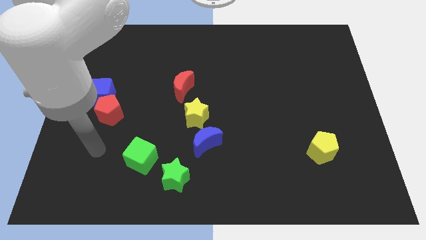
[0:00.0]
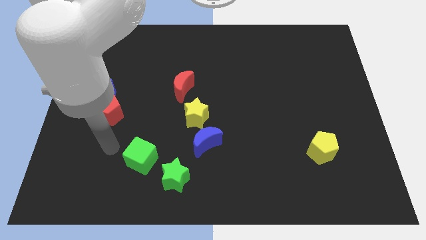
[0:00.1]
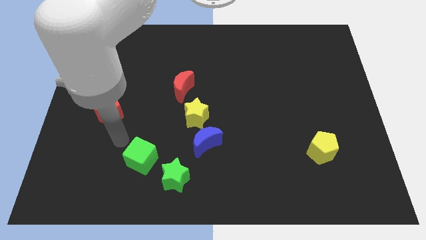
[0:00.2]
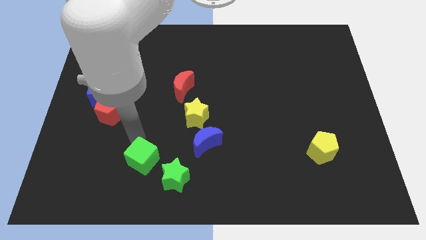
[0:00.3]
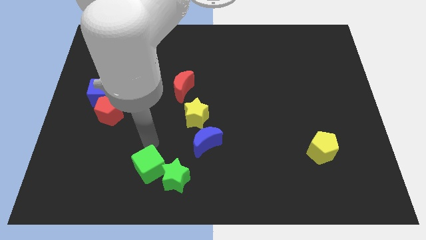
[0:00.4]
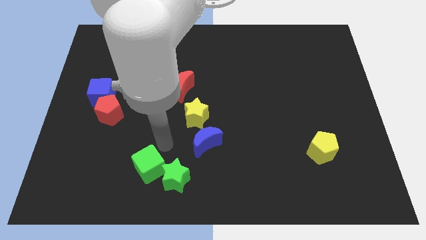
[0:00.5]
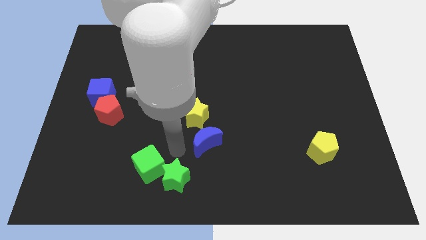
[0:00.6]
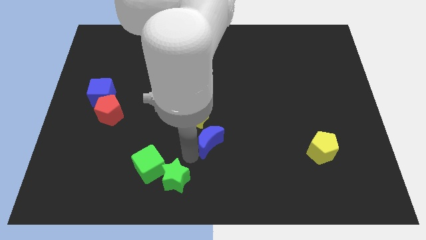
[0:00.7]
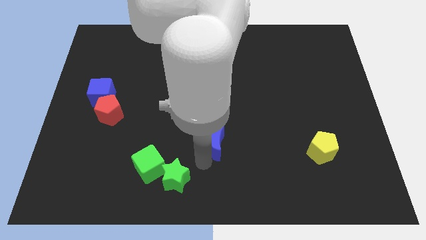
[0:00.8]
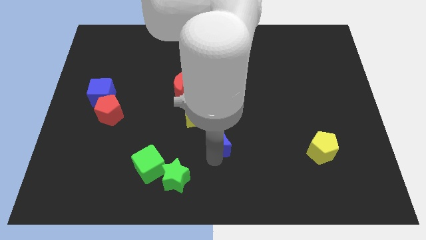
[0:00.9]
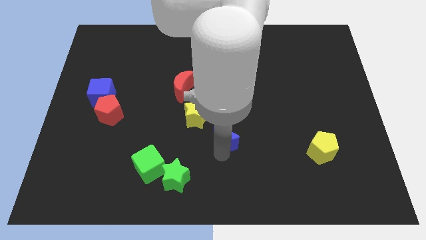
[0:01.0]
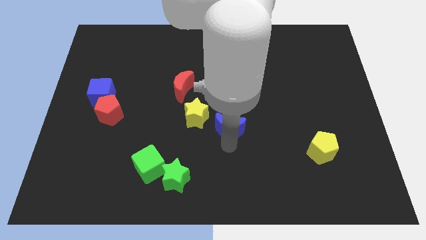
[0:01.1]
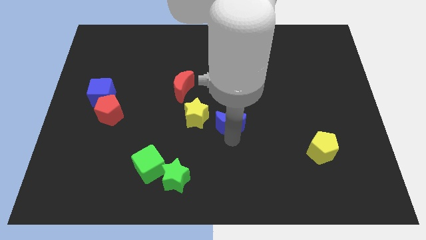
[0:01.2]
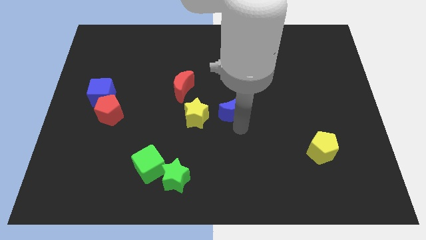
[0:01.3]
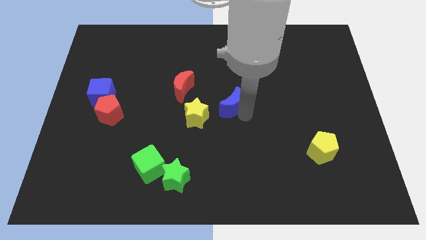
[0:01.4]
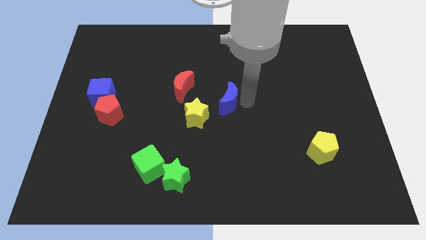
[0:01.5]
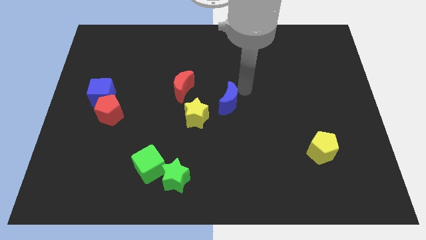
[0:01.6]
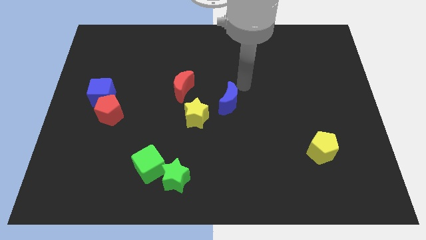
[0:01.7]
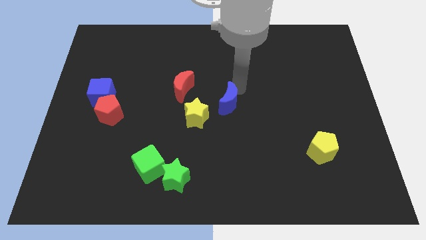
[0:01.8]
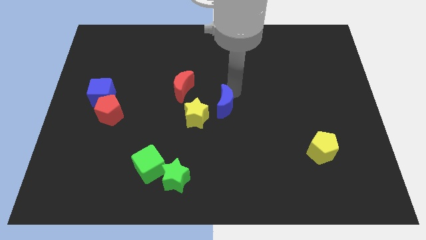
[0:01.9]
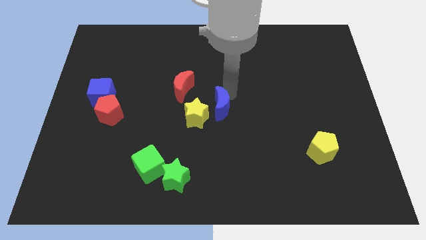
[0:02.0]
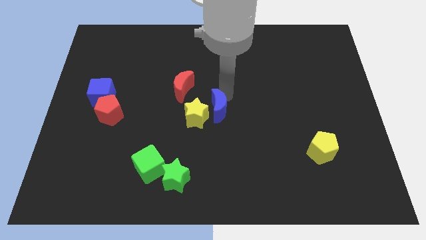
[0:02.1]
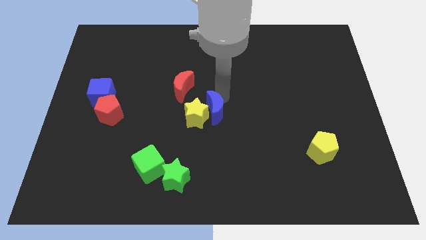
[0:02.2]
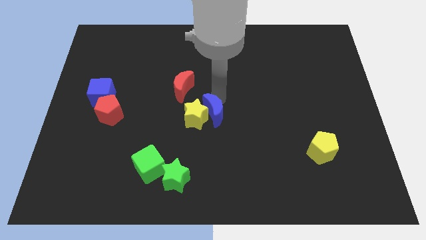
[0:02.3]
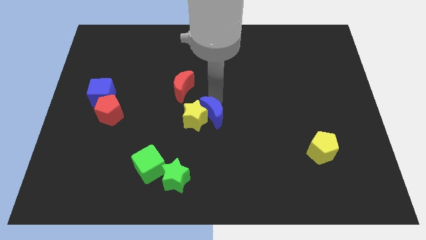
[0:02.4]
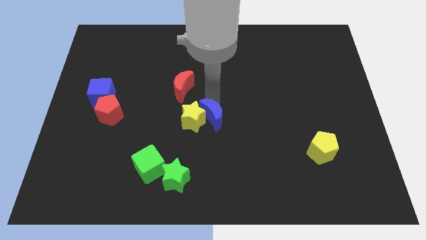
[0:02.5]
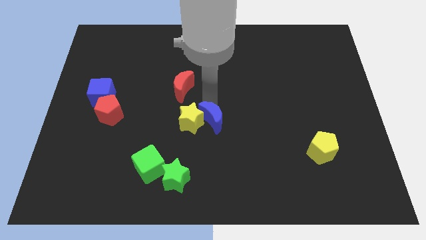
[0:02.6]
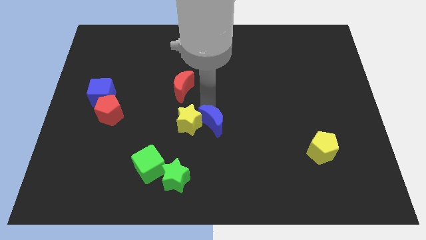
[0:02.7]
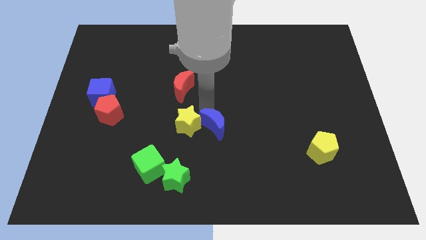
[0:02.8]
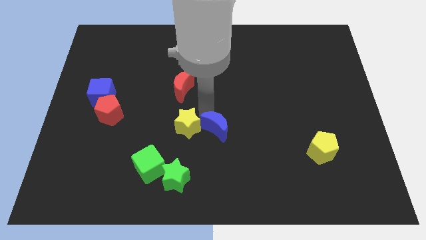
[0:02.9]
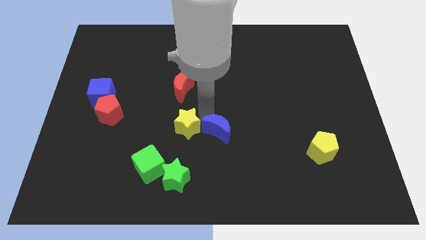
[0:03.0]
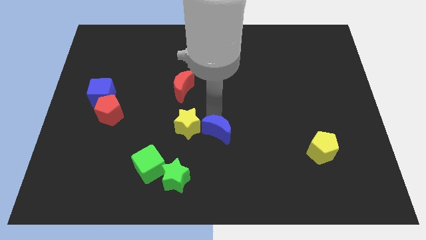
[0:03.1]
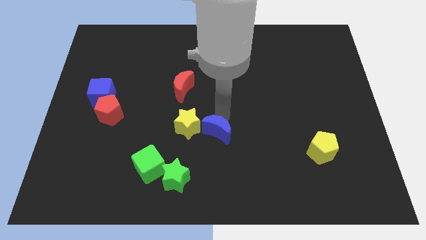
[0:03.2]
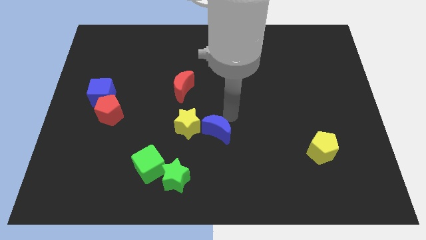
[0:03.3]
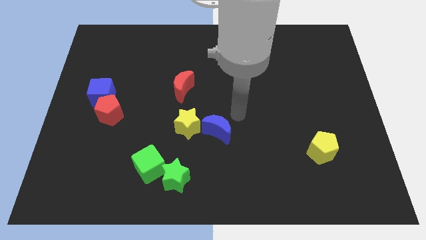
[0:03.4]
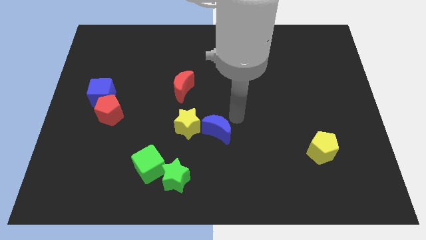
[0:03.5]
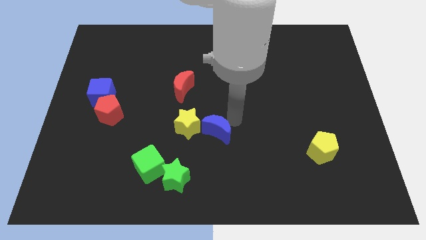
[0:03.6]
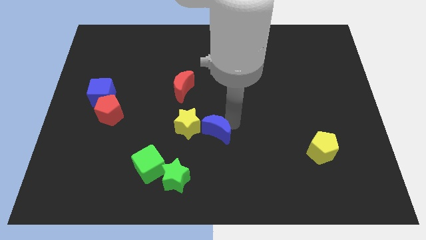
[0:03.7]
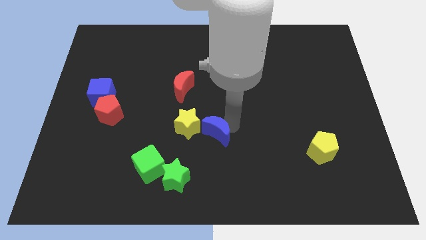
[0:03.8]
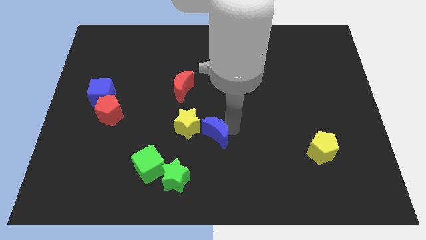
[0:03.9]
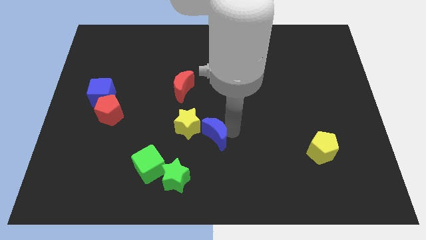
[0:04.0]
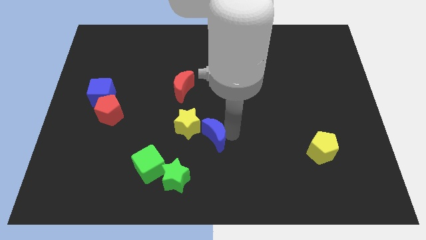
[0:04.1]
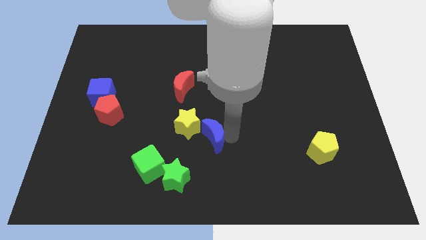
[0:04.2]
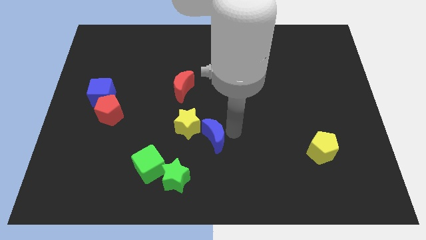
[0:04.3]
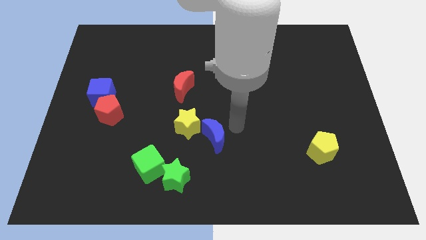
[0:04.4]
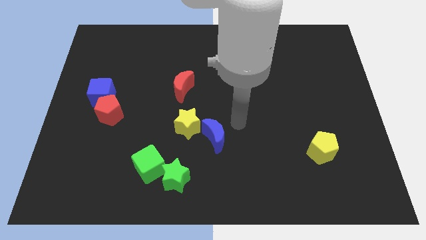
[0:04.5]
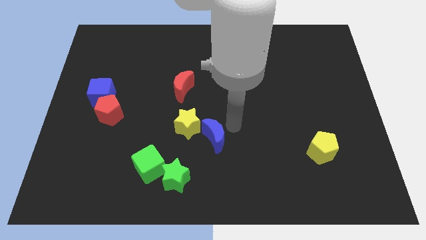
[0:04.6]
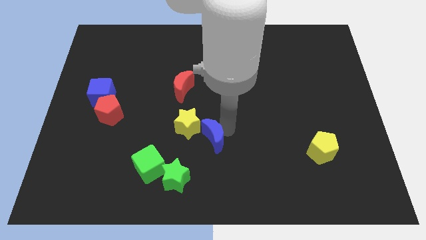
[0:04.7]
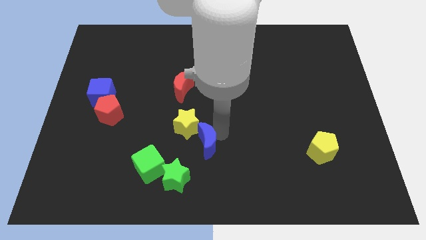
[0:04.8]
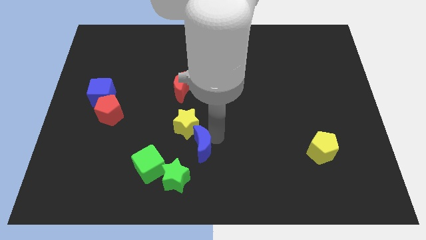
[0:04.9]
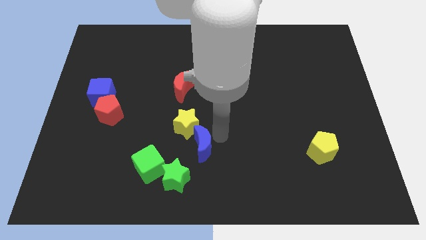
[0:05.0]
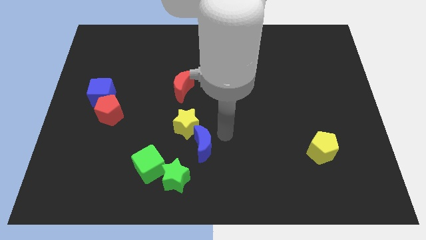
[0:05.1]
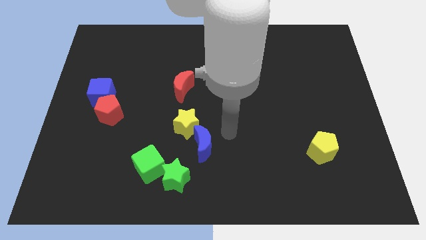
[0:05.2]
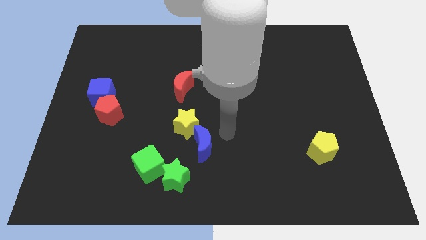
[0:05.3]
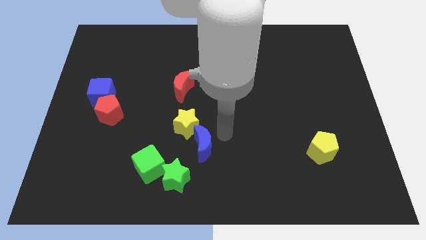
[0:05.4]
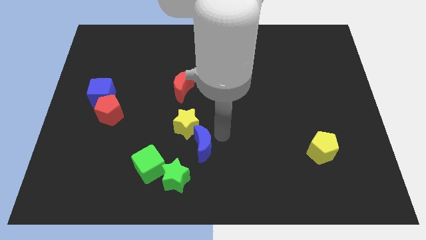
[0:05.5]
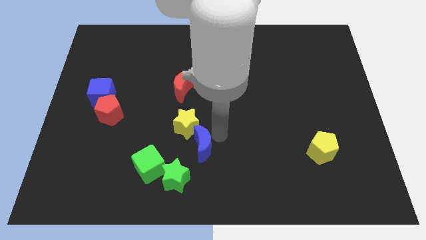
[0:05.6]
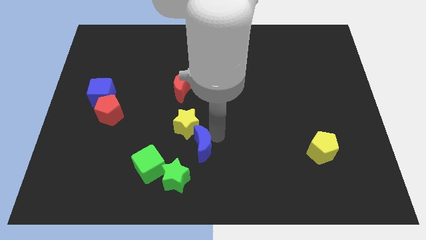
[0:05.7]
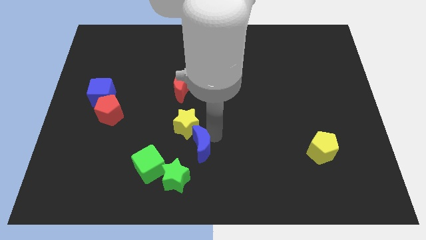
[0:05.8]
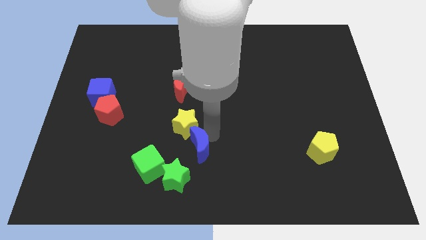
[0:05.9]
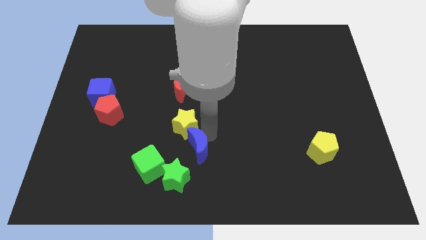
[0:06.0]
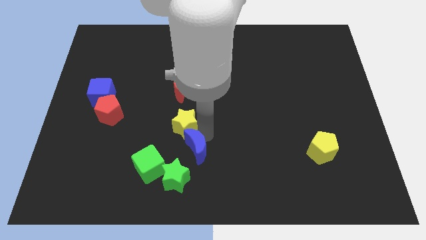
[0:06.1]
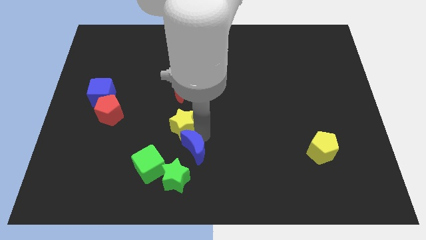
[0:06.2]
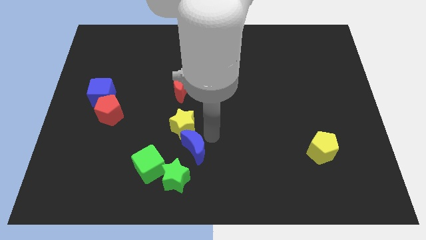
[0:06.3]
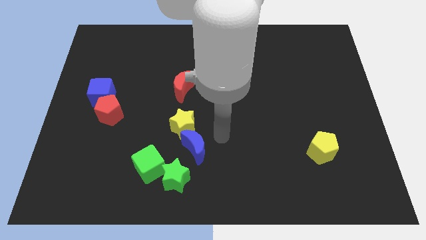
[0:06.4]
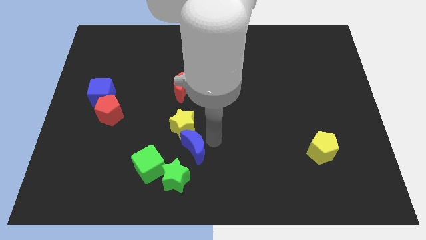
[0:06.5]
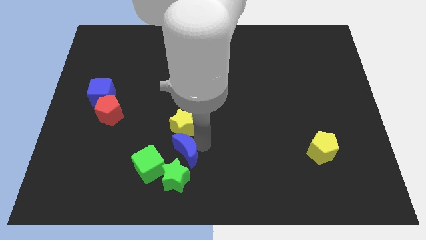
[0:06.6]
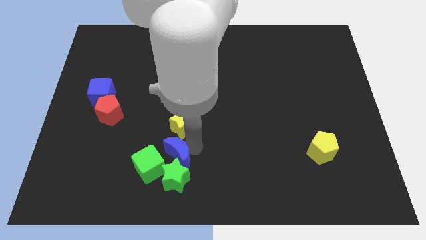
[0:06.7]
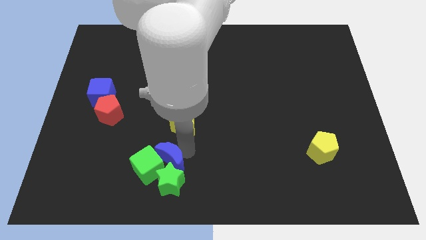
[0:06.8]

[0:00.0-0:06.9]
push the blue moon next to the green cube
